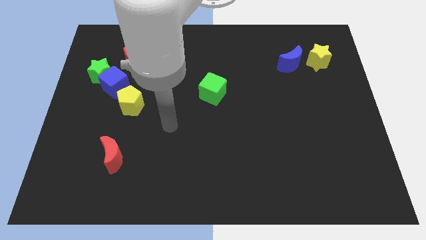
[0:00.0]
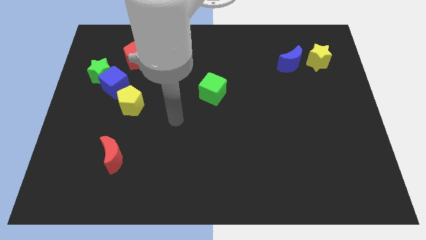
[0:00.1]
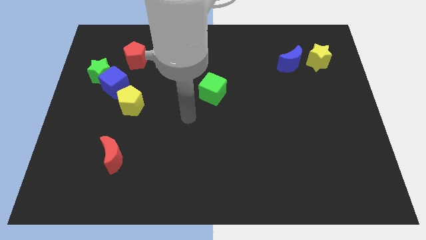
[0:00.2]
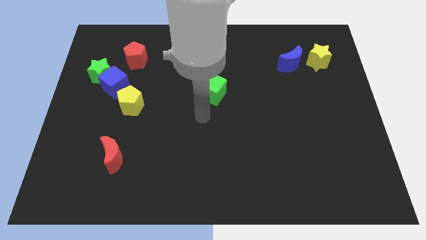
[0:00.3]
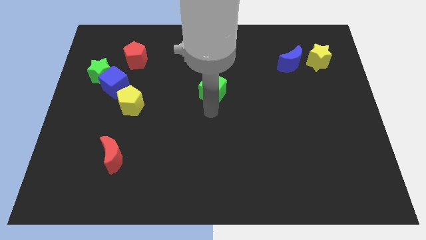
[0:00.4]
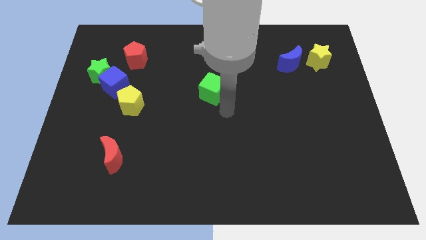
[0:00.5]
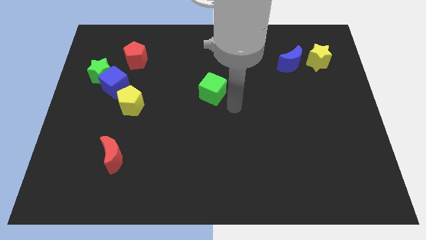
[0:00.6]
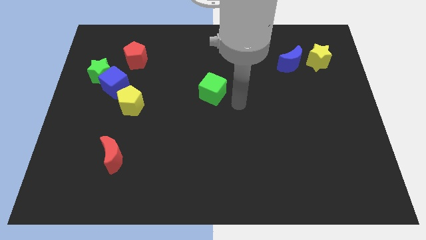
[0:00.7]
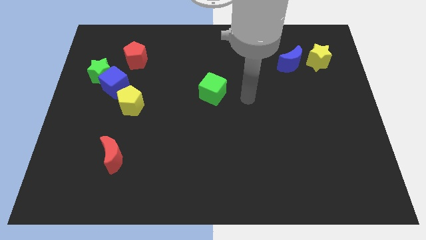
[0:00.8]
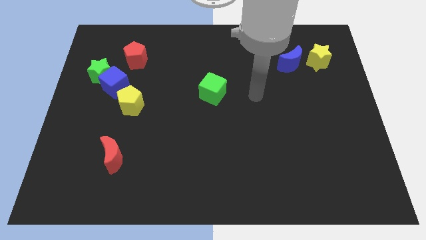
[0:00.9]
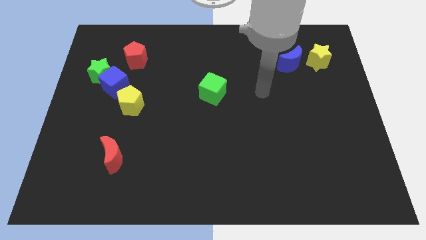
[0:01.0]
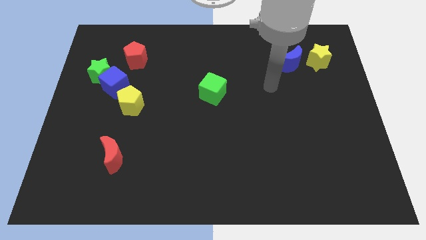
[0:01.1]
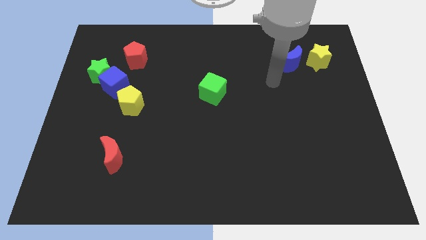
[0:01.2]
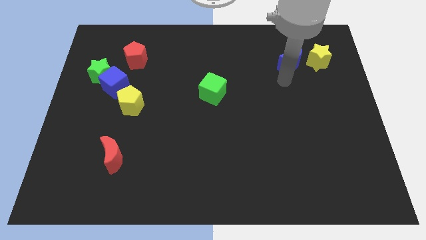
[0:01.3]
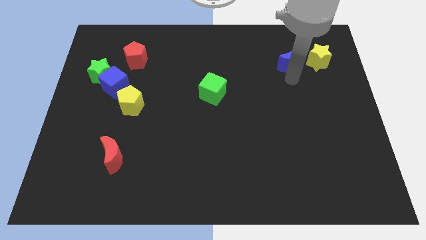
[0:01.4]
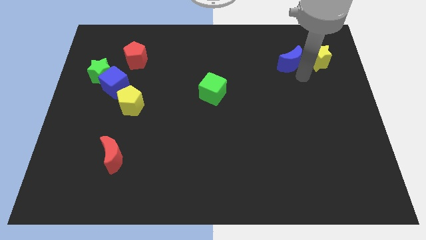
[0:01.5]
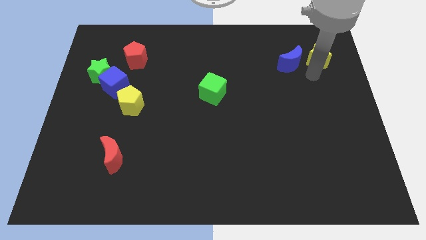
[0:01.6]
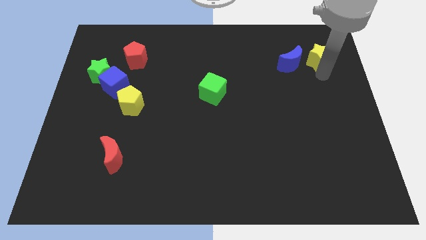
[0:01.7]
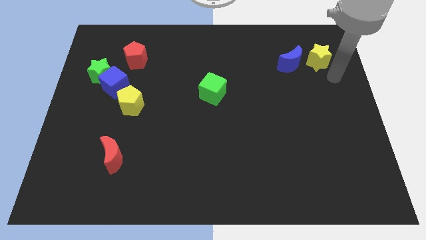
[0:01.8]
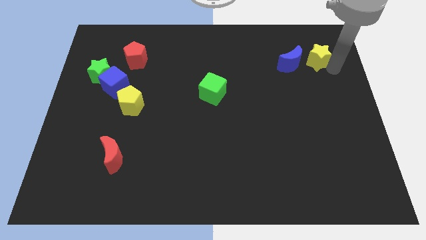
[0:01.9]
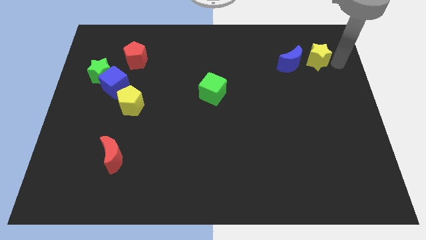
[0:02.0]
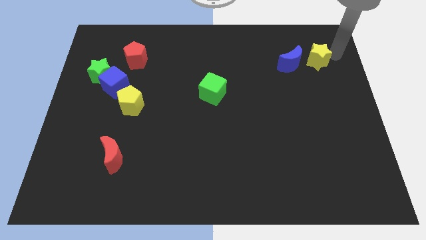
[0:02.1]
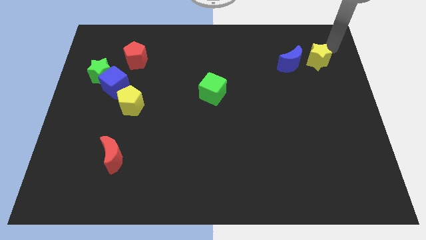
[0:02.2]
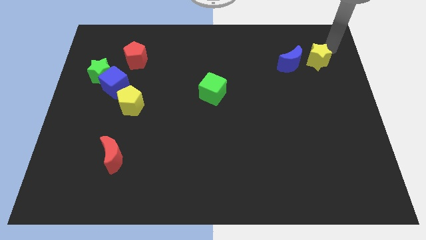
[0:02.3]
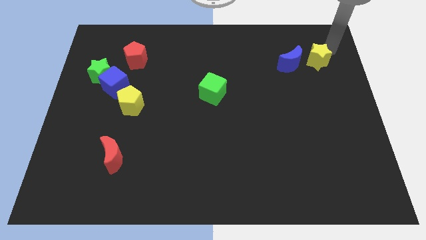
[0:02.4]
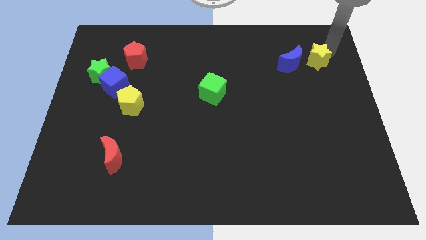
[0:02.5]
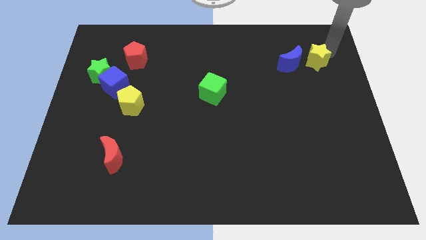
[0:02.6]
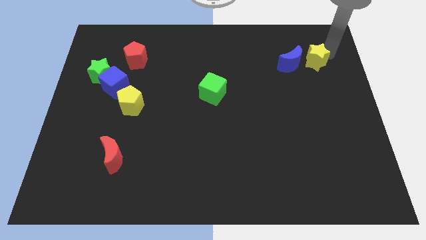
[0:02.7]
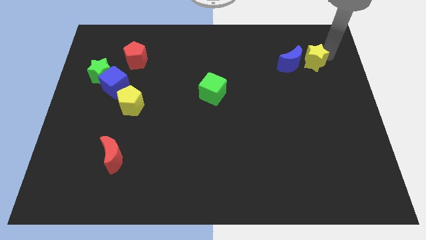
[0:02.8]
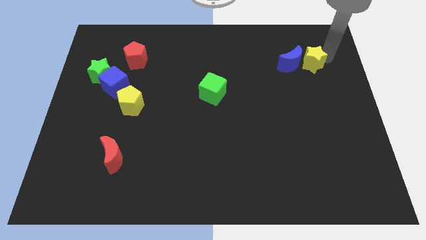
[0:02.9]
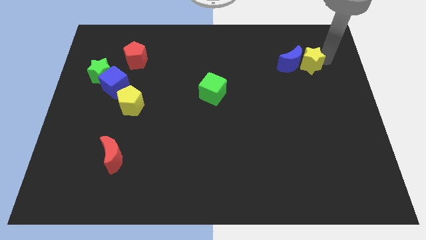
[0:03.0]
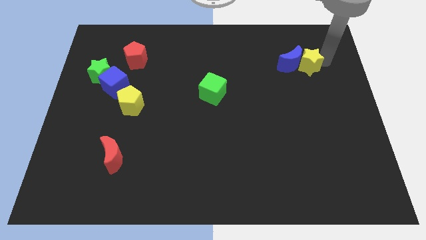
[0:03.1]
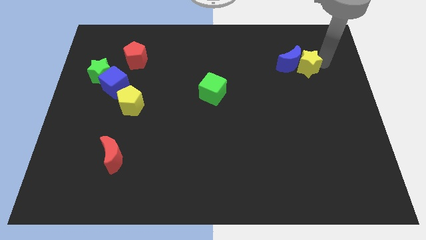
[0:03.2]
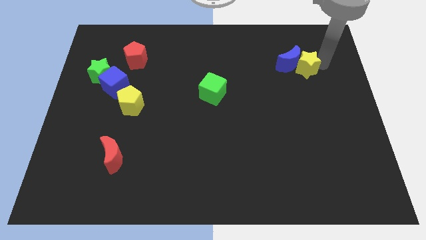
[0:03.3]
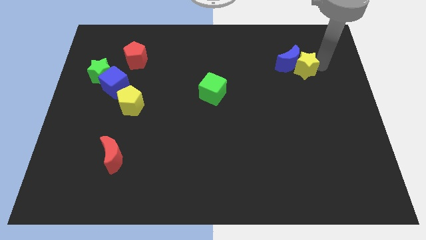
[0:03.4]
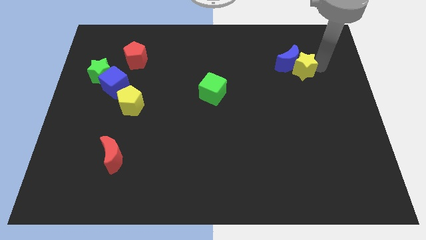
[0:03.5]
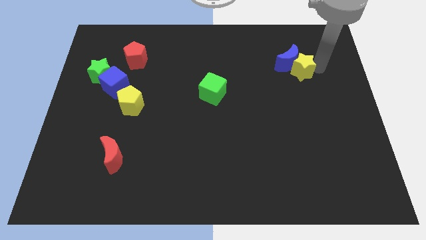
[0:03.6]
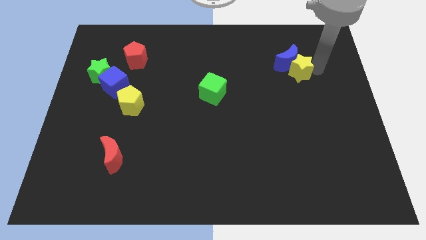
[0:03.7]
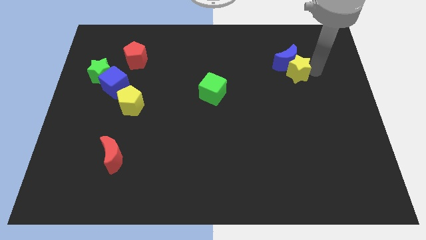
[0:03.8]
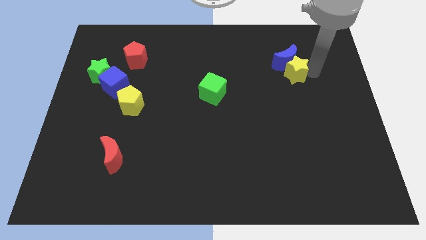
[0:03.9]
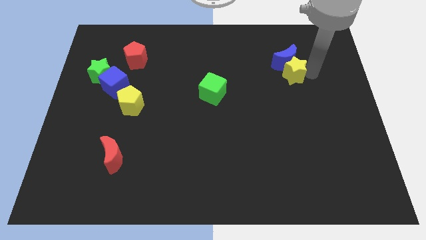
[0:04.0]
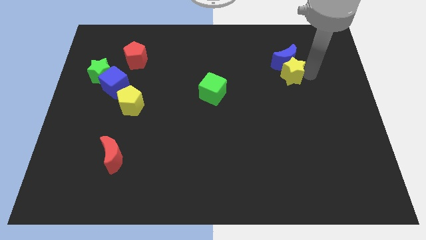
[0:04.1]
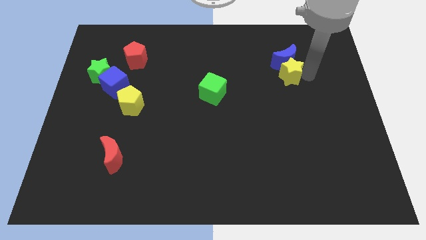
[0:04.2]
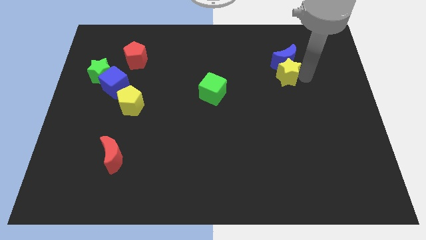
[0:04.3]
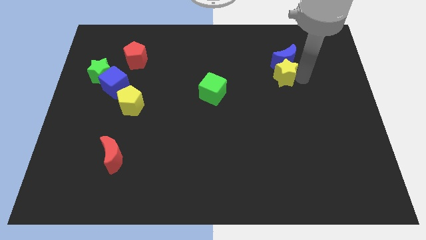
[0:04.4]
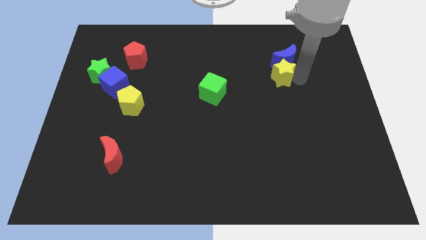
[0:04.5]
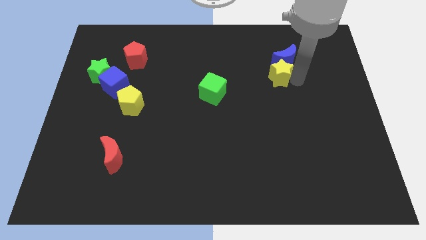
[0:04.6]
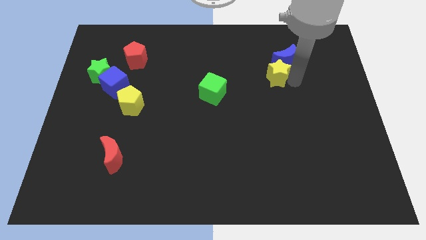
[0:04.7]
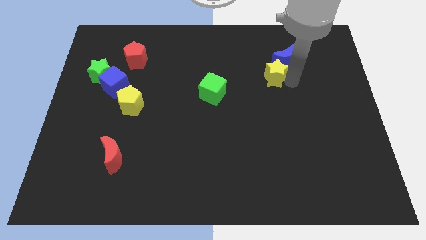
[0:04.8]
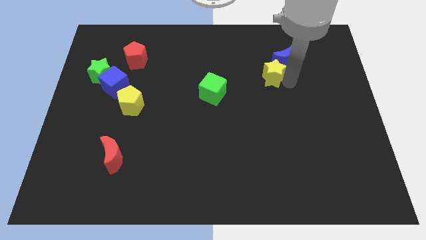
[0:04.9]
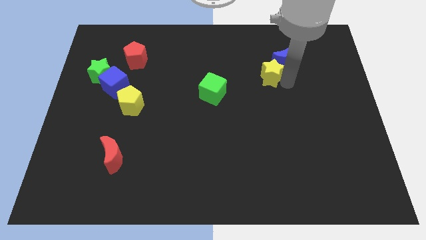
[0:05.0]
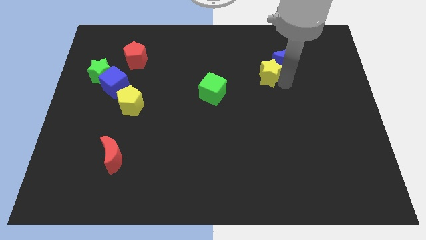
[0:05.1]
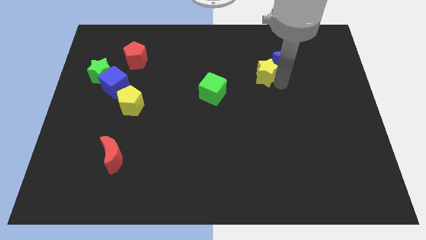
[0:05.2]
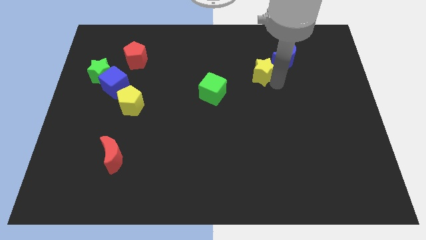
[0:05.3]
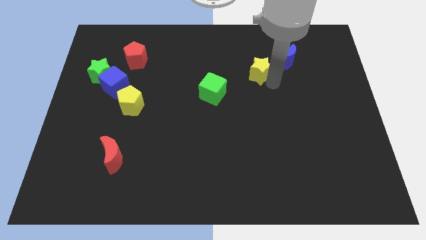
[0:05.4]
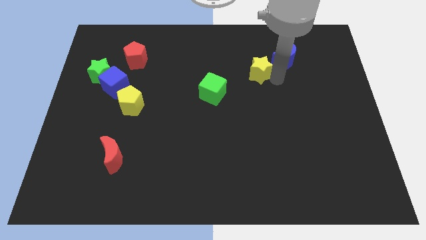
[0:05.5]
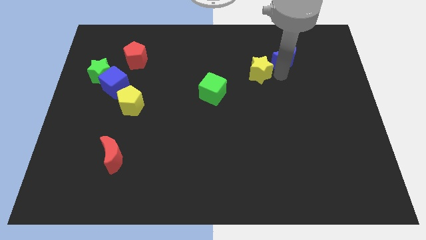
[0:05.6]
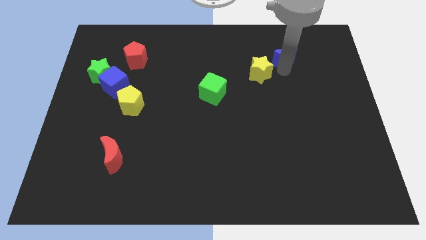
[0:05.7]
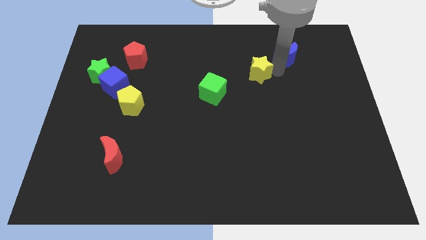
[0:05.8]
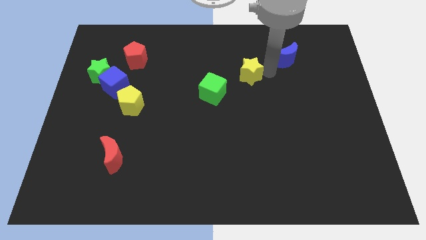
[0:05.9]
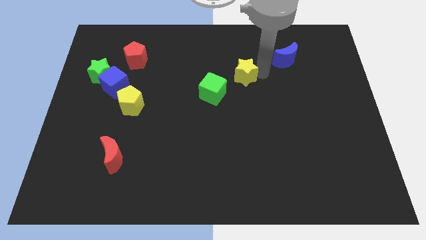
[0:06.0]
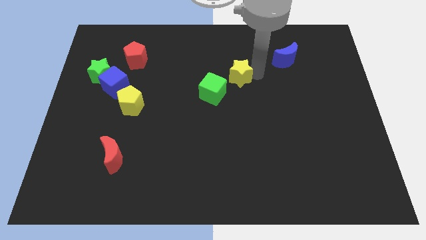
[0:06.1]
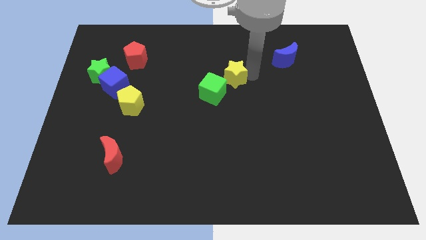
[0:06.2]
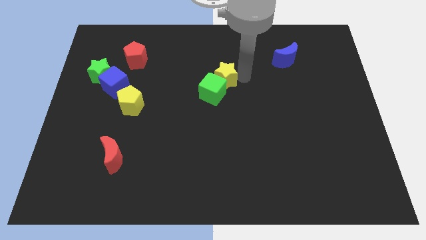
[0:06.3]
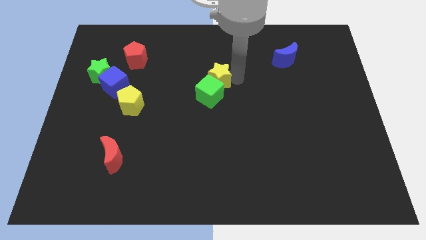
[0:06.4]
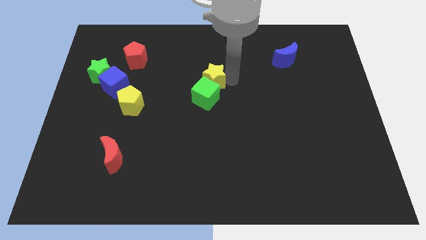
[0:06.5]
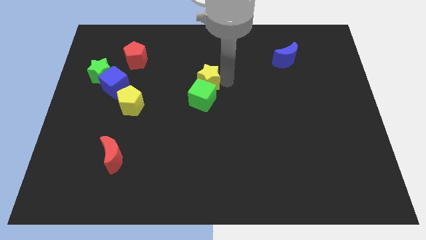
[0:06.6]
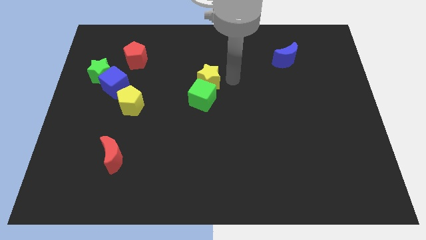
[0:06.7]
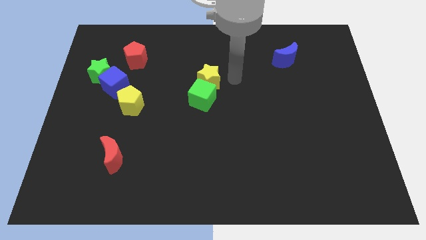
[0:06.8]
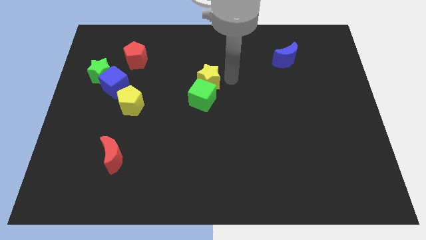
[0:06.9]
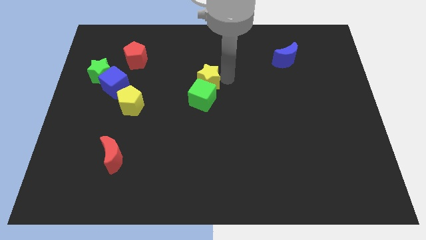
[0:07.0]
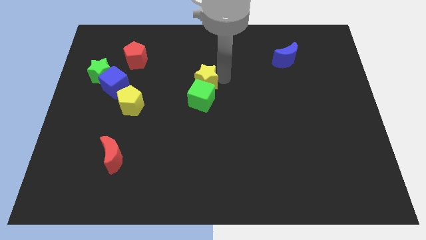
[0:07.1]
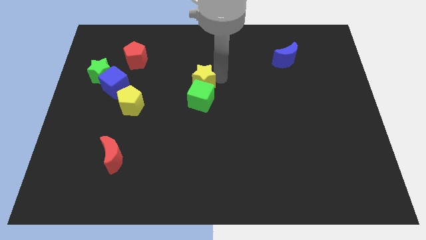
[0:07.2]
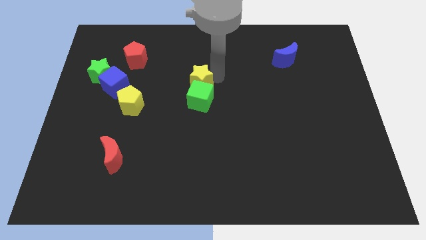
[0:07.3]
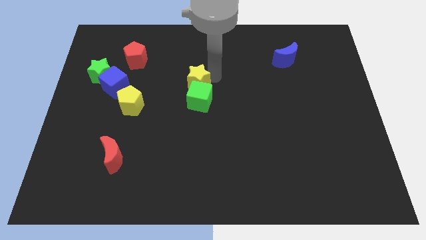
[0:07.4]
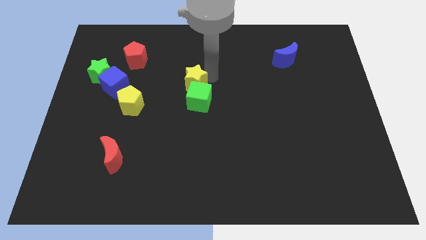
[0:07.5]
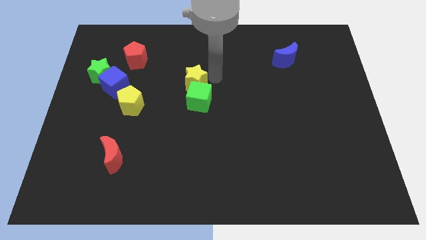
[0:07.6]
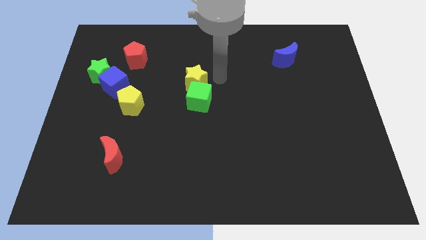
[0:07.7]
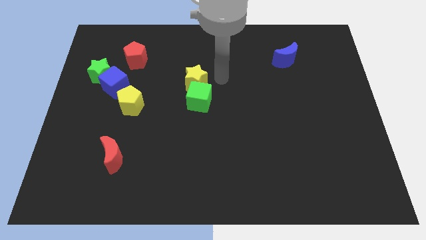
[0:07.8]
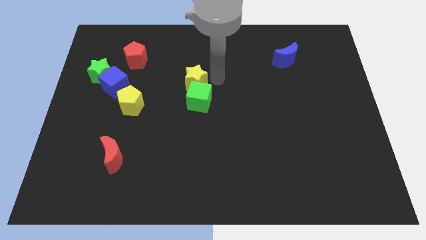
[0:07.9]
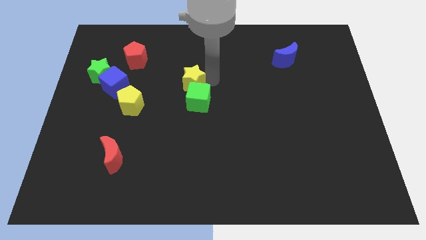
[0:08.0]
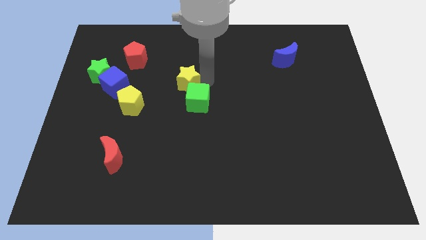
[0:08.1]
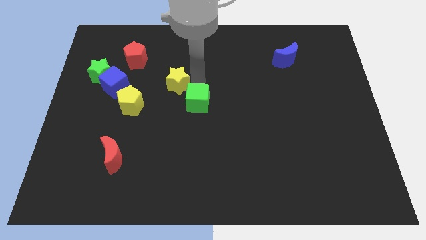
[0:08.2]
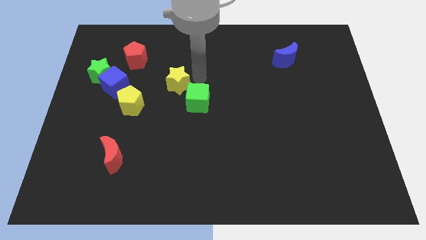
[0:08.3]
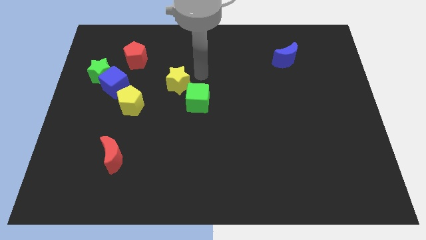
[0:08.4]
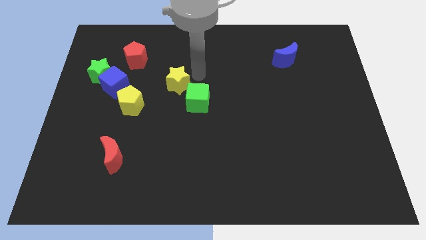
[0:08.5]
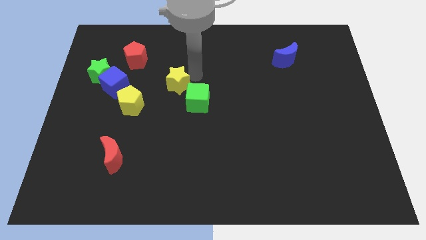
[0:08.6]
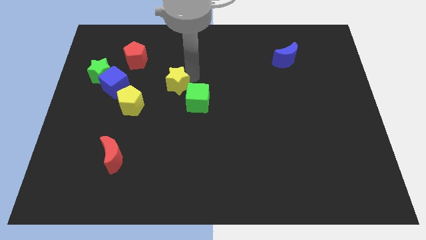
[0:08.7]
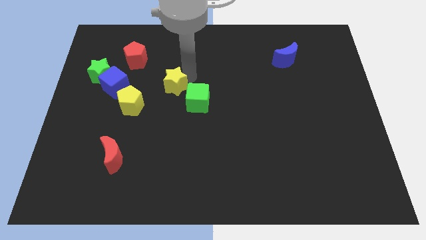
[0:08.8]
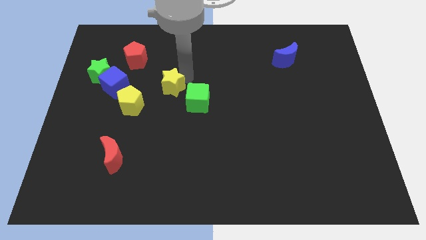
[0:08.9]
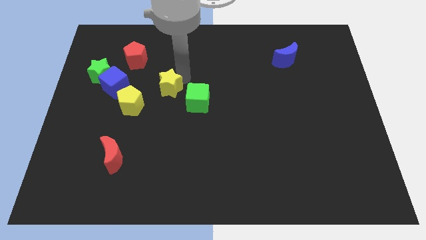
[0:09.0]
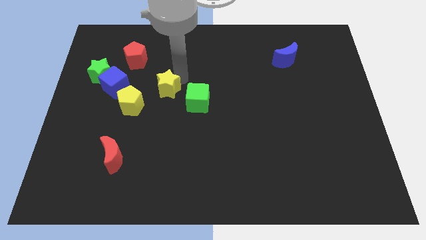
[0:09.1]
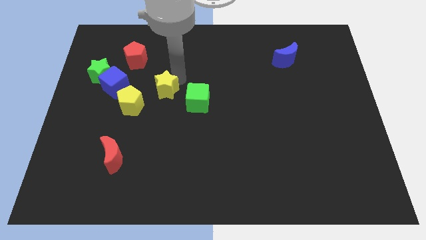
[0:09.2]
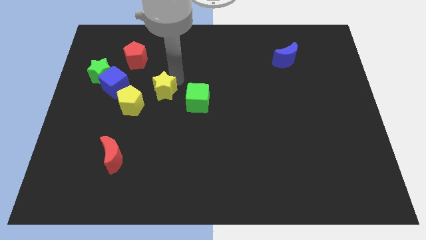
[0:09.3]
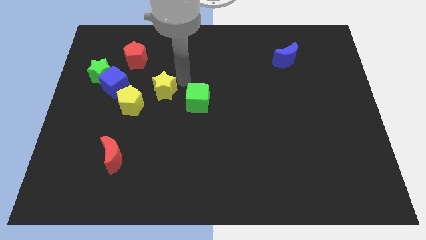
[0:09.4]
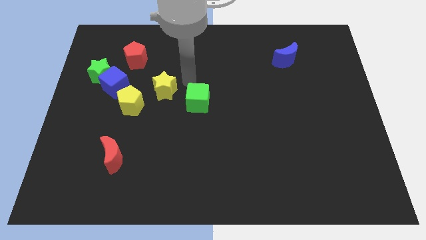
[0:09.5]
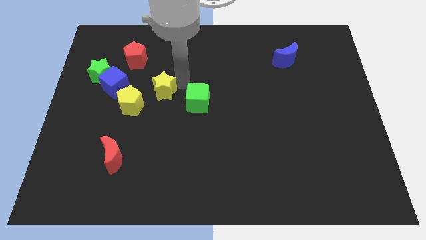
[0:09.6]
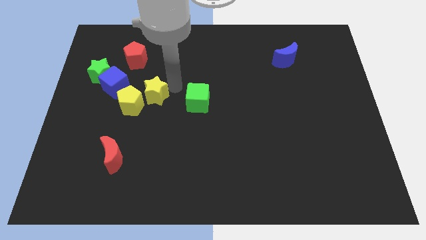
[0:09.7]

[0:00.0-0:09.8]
push the yellow star to the yellow pentagon
